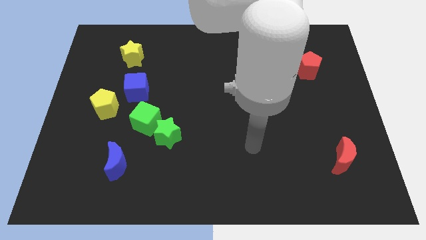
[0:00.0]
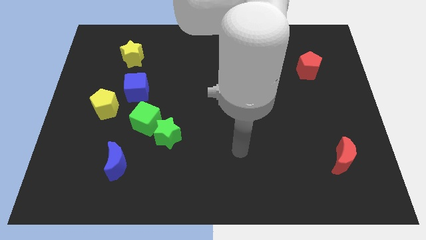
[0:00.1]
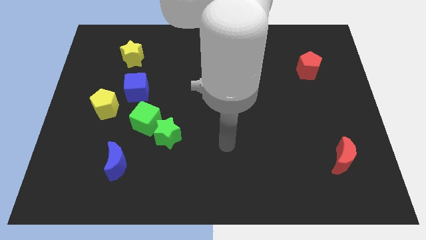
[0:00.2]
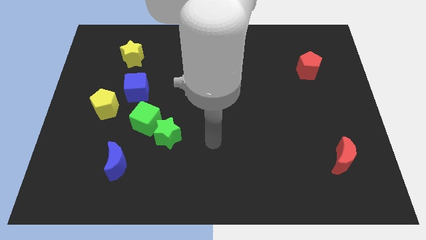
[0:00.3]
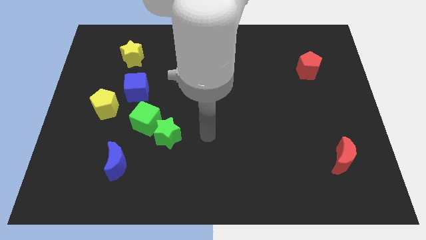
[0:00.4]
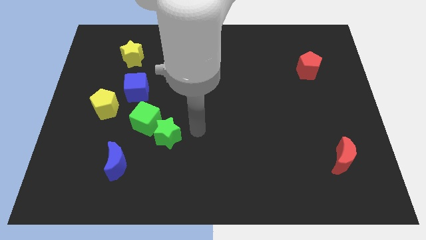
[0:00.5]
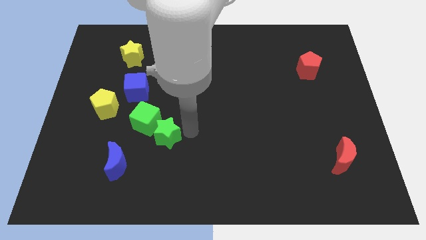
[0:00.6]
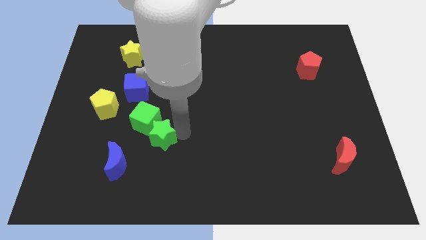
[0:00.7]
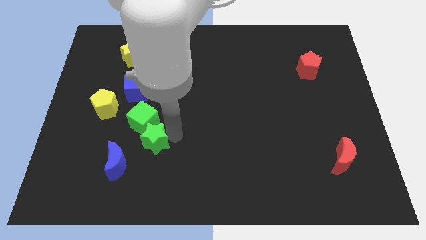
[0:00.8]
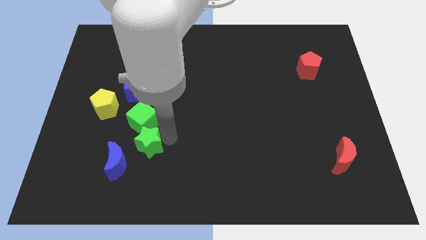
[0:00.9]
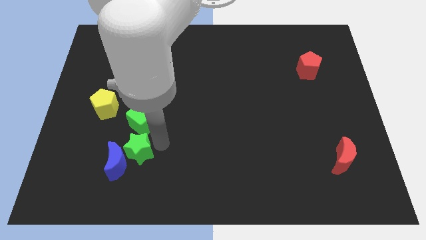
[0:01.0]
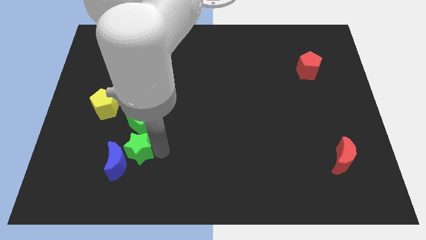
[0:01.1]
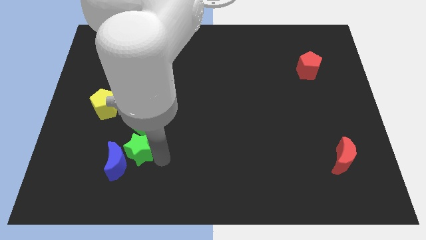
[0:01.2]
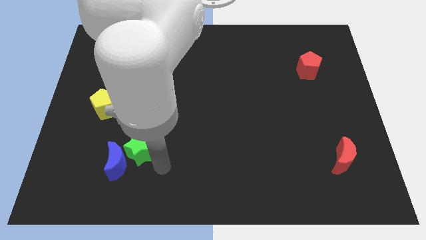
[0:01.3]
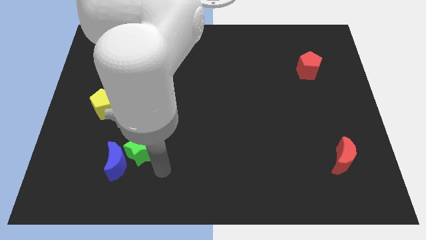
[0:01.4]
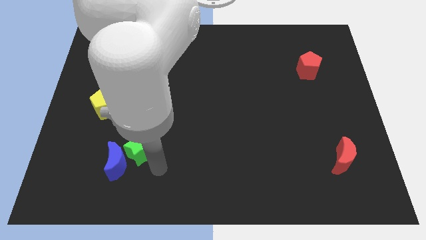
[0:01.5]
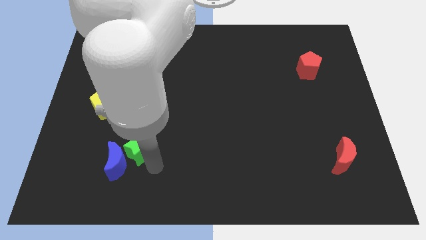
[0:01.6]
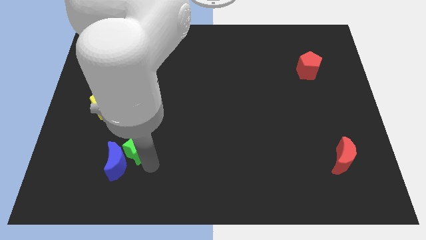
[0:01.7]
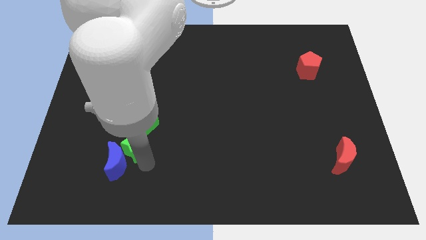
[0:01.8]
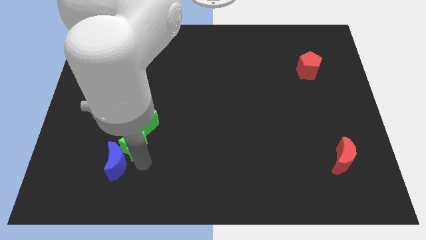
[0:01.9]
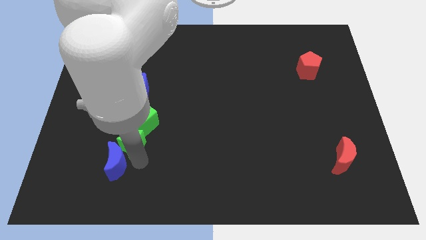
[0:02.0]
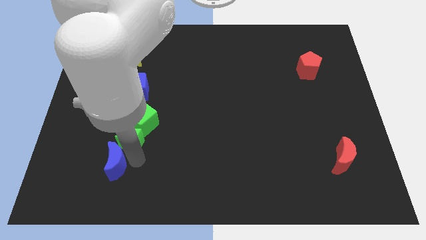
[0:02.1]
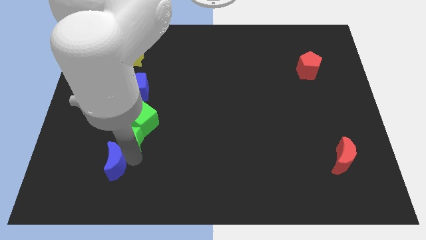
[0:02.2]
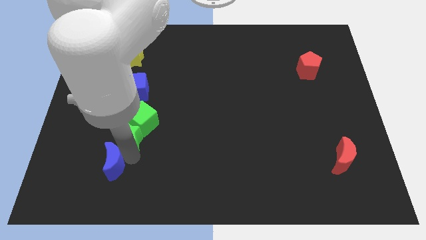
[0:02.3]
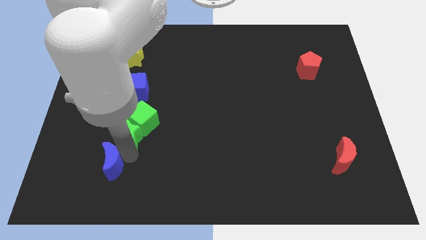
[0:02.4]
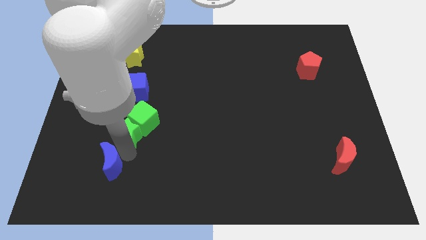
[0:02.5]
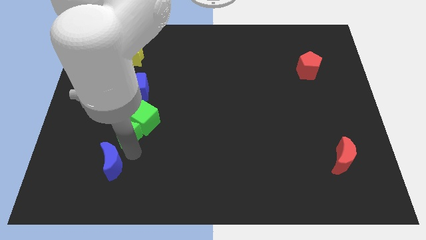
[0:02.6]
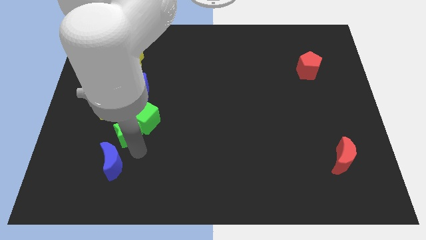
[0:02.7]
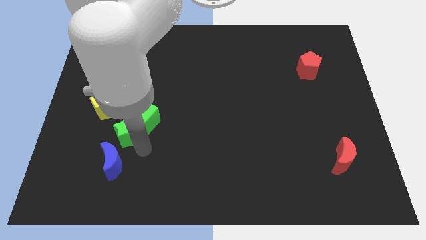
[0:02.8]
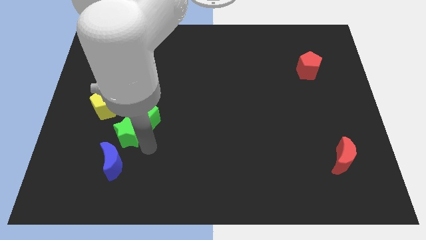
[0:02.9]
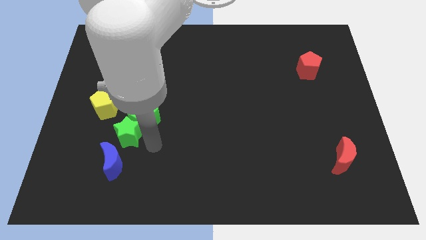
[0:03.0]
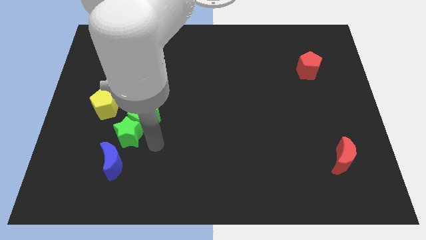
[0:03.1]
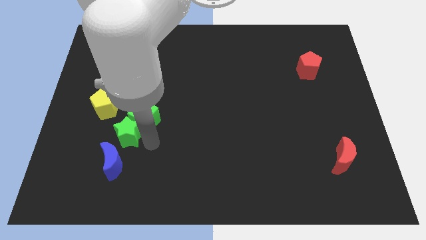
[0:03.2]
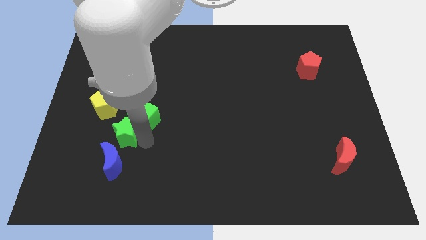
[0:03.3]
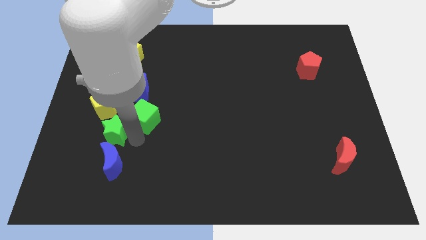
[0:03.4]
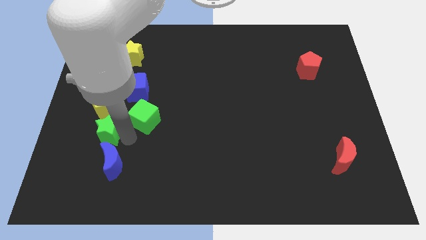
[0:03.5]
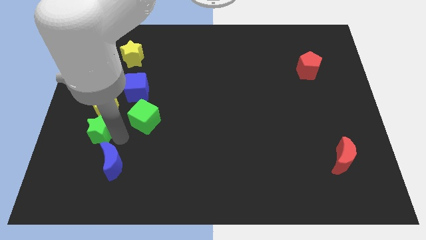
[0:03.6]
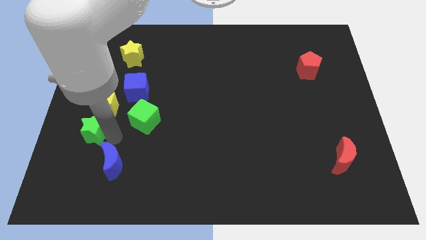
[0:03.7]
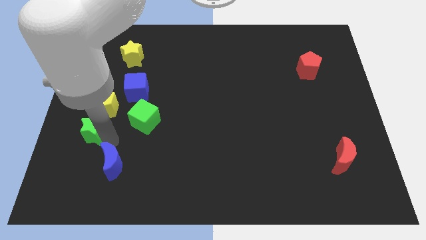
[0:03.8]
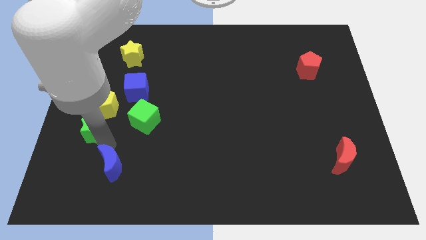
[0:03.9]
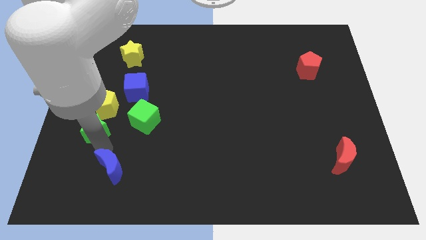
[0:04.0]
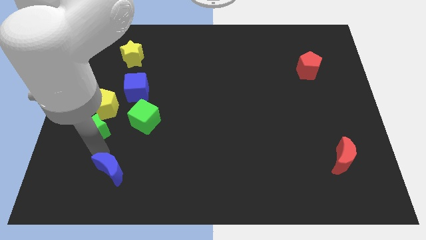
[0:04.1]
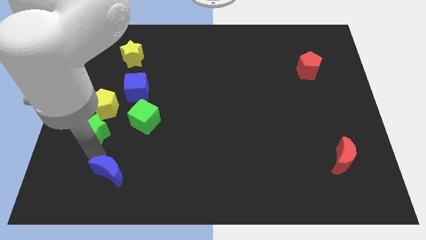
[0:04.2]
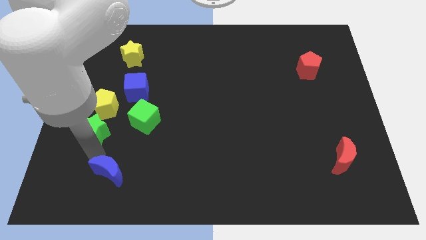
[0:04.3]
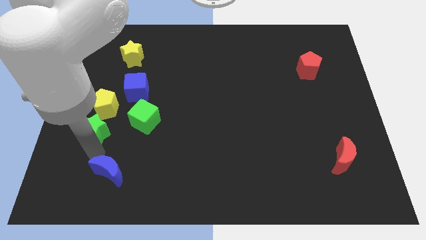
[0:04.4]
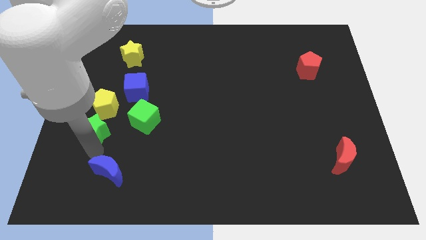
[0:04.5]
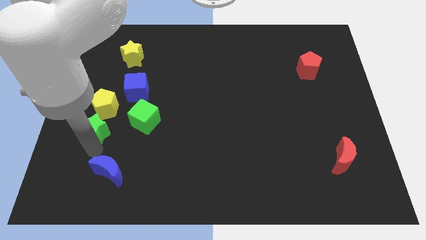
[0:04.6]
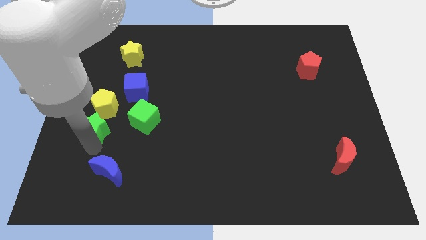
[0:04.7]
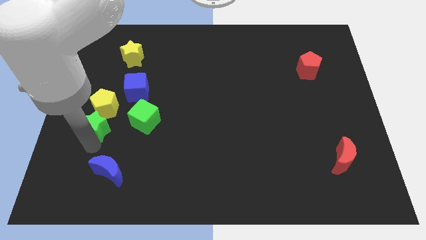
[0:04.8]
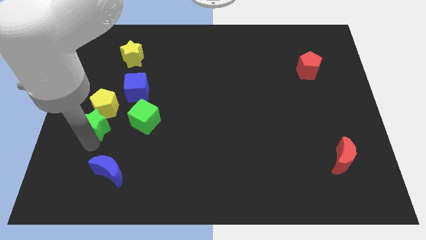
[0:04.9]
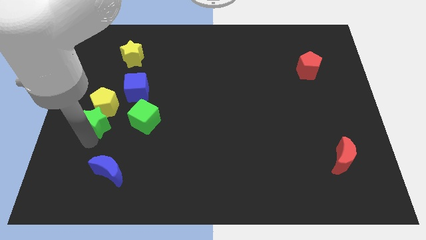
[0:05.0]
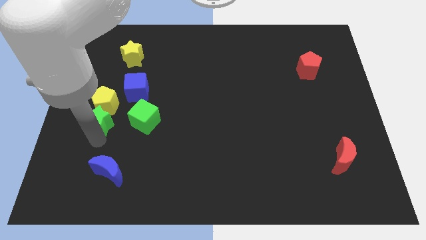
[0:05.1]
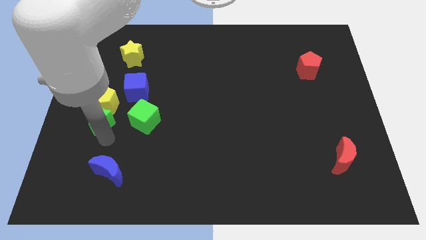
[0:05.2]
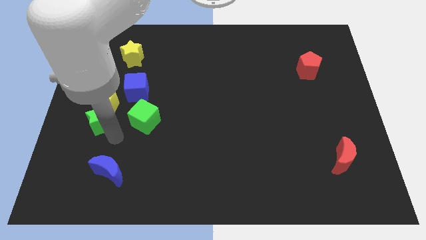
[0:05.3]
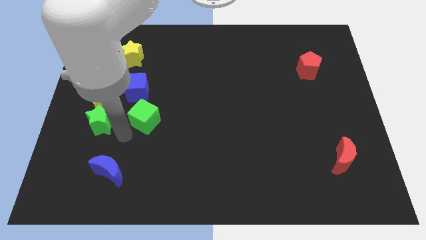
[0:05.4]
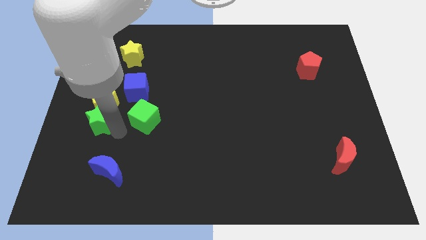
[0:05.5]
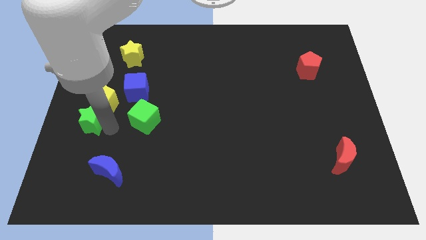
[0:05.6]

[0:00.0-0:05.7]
move the green star to the left side
